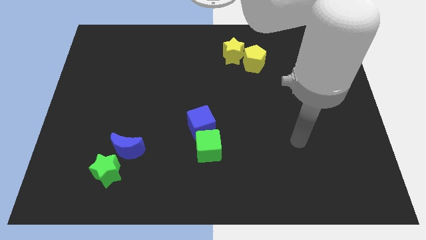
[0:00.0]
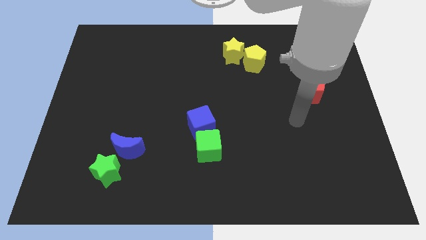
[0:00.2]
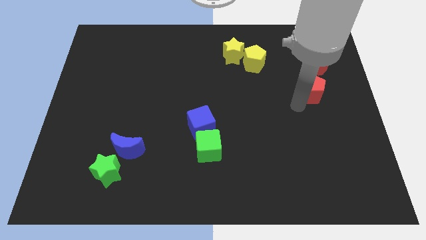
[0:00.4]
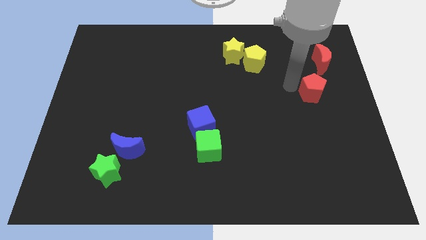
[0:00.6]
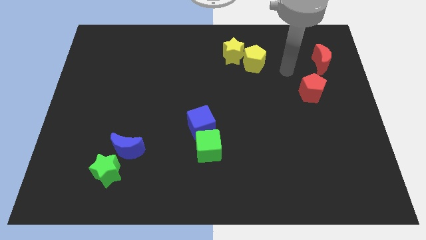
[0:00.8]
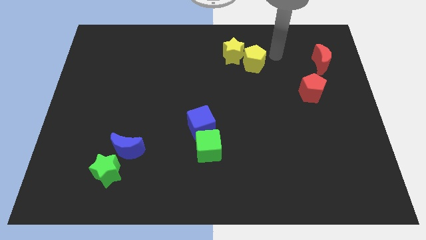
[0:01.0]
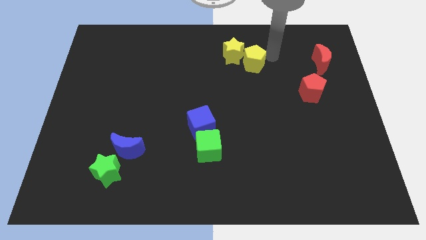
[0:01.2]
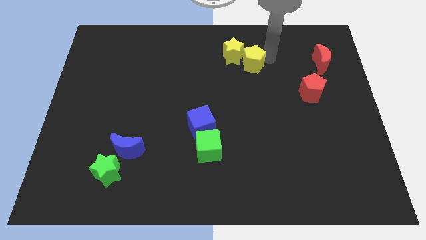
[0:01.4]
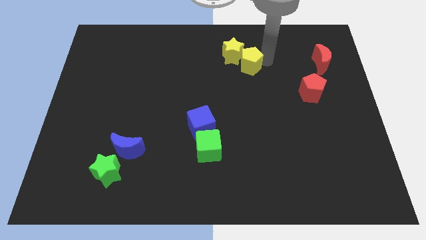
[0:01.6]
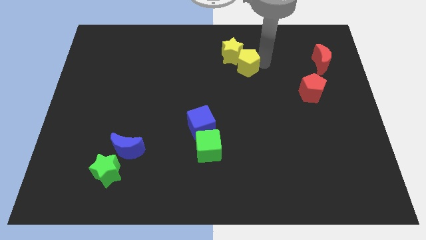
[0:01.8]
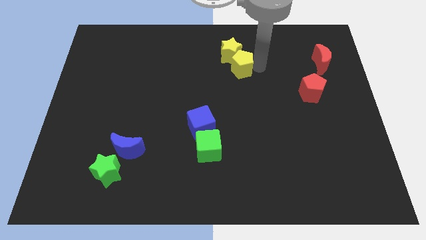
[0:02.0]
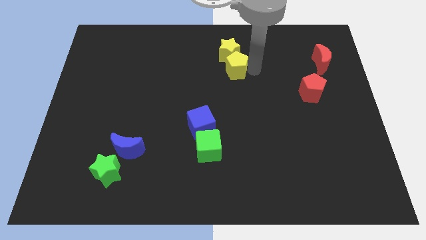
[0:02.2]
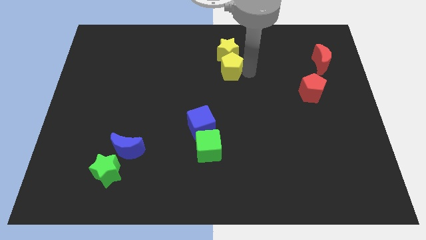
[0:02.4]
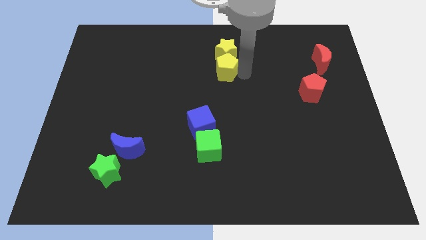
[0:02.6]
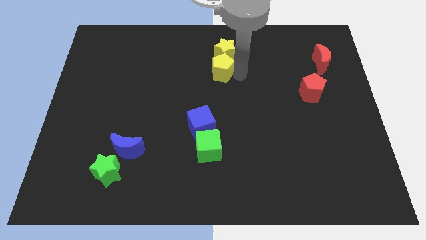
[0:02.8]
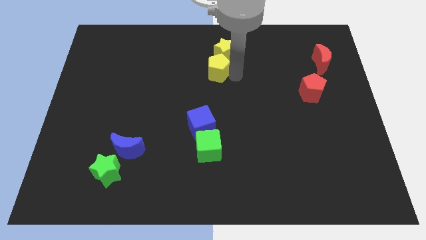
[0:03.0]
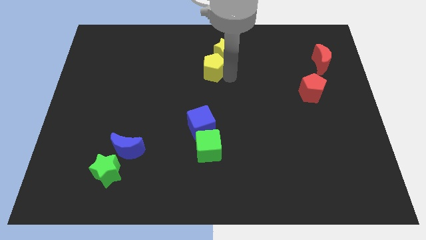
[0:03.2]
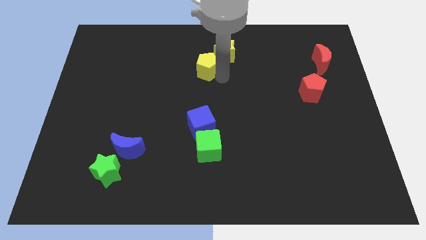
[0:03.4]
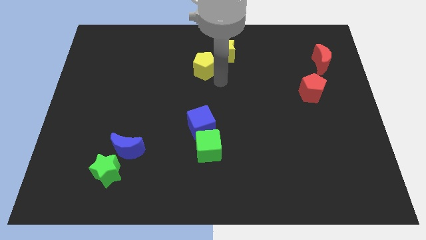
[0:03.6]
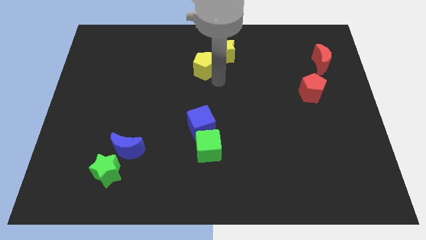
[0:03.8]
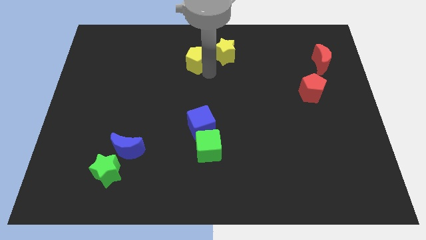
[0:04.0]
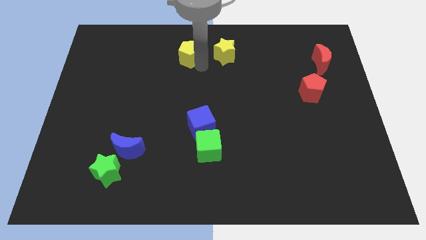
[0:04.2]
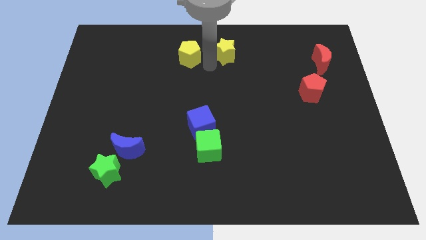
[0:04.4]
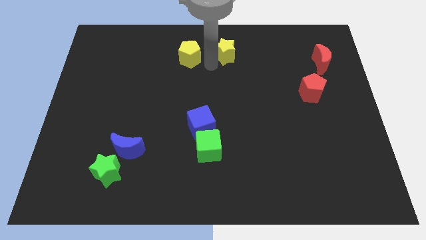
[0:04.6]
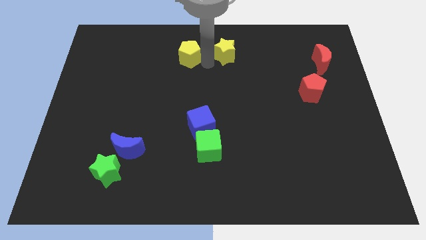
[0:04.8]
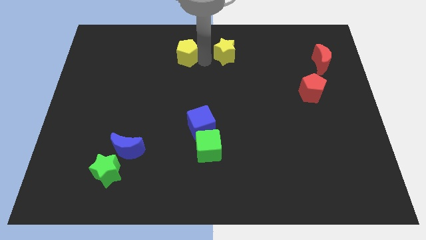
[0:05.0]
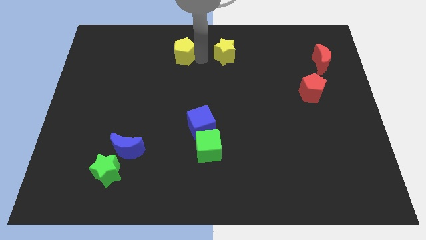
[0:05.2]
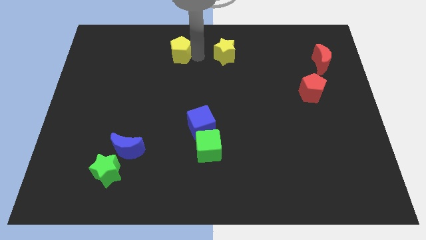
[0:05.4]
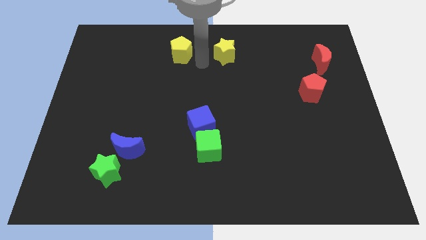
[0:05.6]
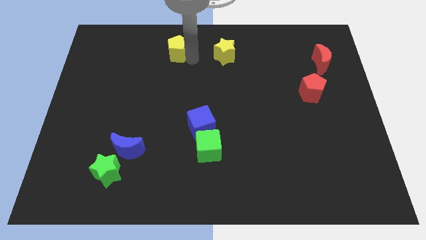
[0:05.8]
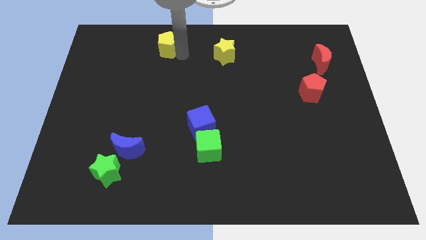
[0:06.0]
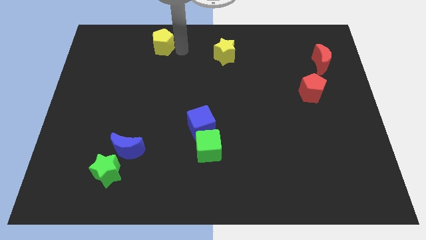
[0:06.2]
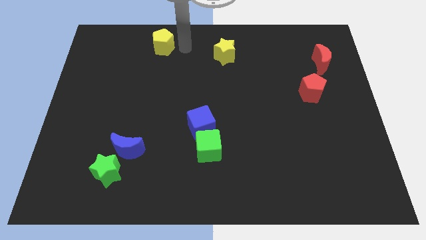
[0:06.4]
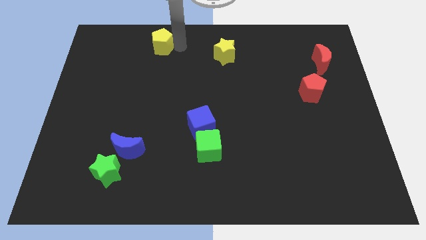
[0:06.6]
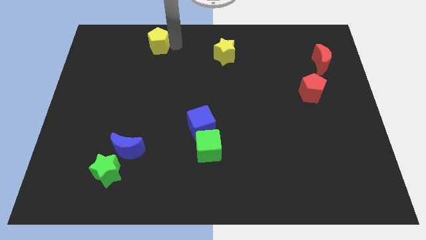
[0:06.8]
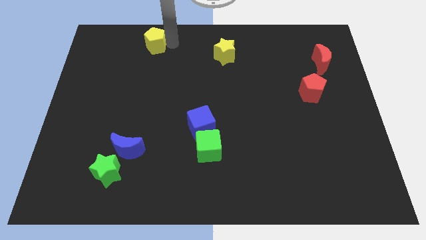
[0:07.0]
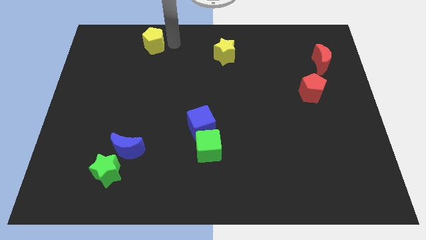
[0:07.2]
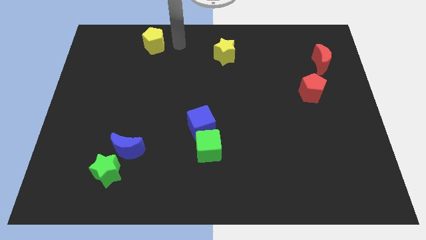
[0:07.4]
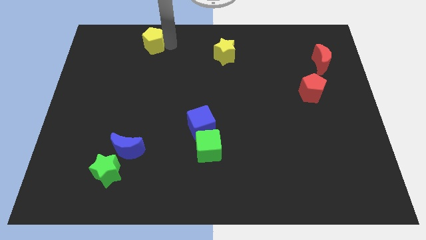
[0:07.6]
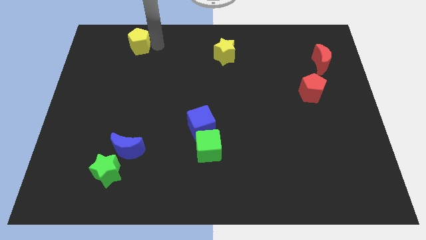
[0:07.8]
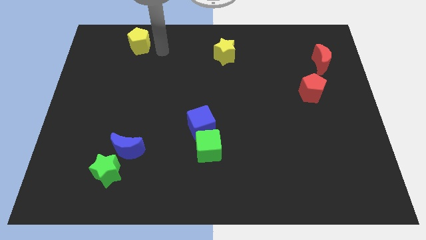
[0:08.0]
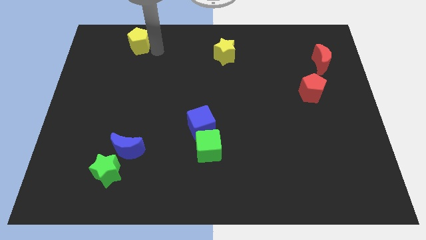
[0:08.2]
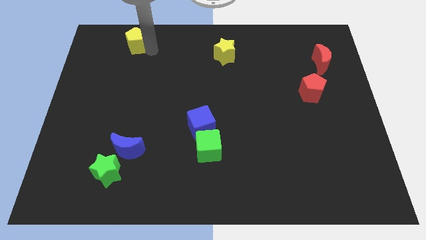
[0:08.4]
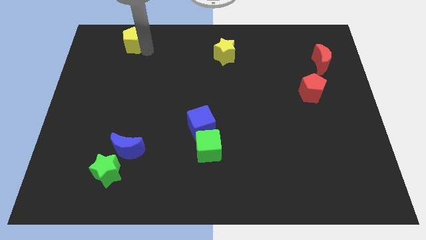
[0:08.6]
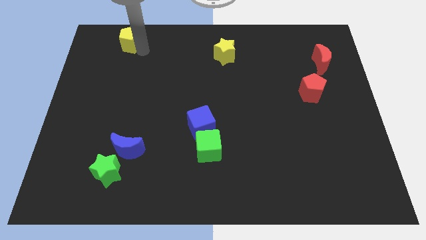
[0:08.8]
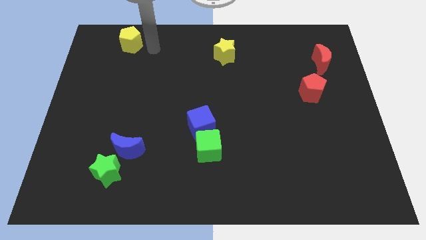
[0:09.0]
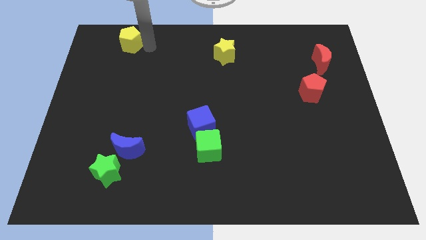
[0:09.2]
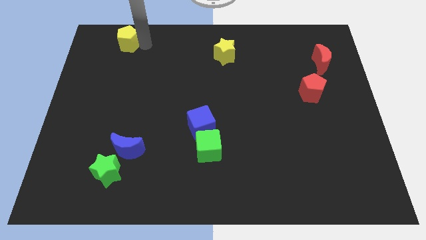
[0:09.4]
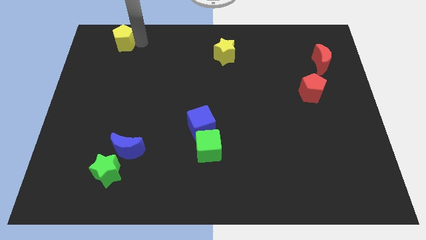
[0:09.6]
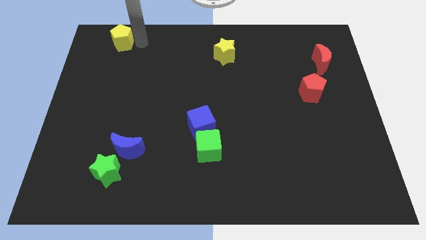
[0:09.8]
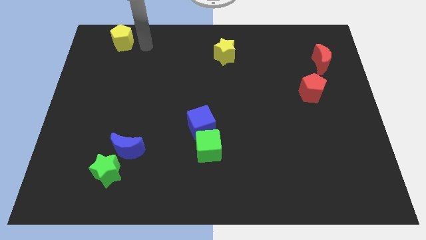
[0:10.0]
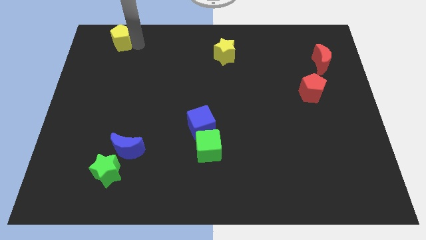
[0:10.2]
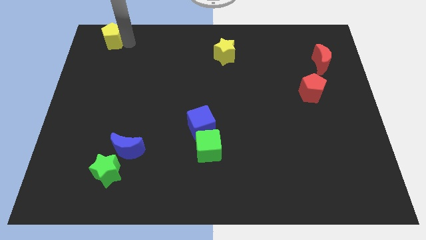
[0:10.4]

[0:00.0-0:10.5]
put the yellow pentagon to the upper left corner

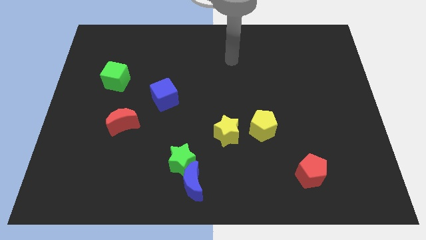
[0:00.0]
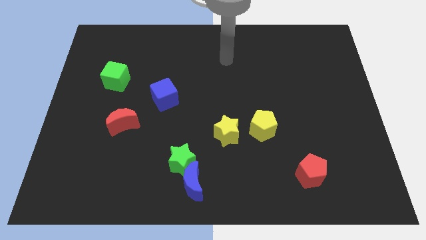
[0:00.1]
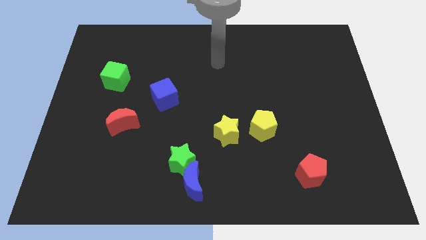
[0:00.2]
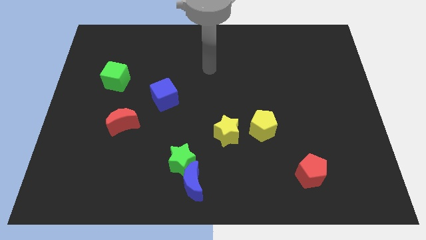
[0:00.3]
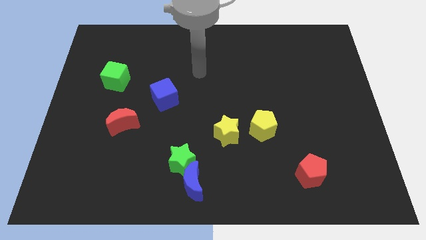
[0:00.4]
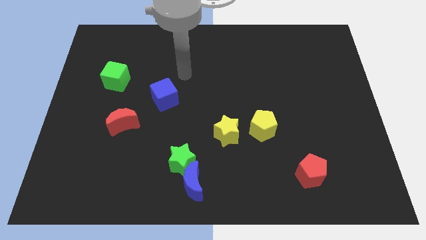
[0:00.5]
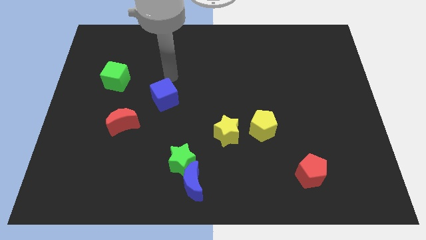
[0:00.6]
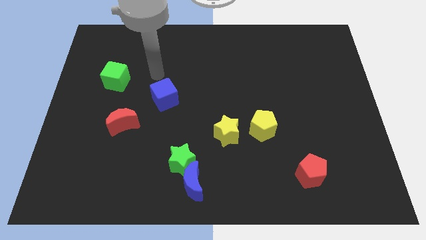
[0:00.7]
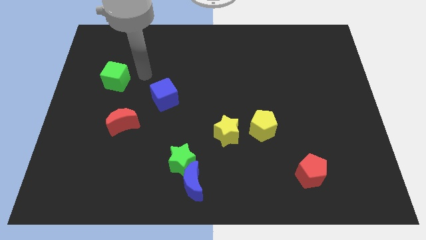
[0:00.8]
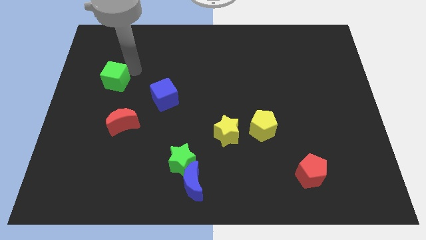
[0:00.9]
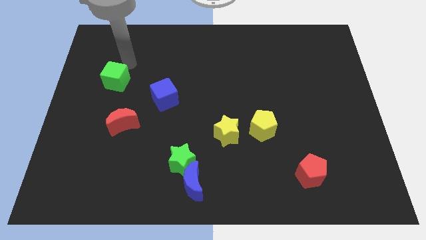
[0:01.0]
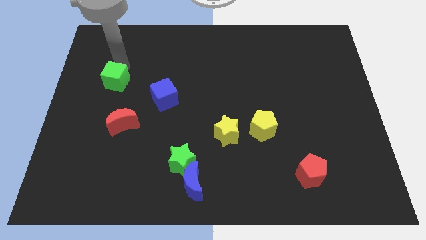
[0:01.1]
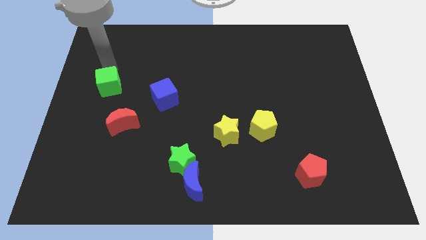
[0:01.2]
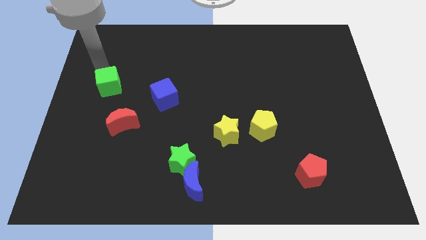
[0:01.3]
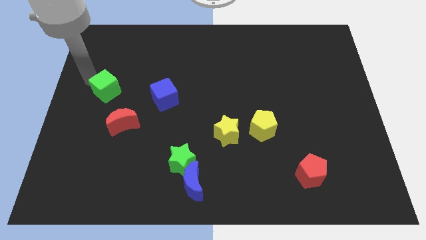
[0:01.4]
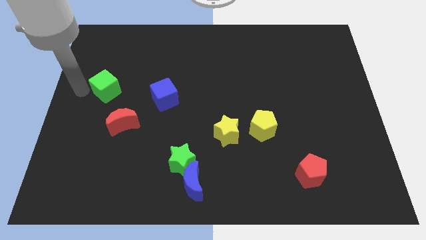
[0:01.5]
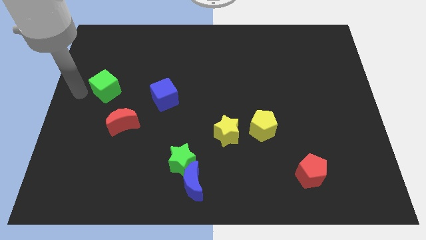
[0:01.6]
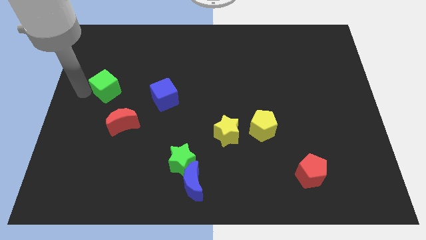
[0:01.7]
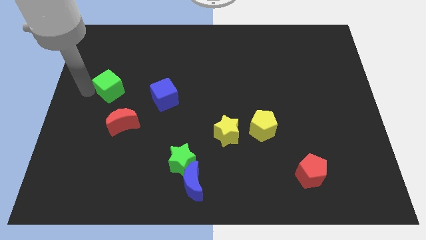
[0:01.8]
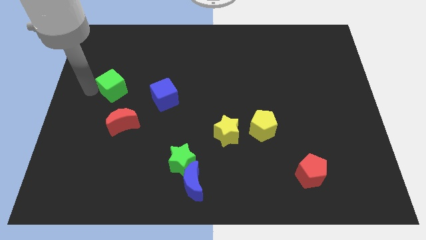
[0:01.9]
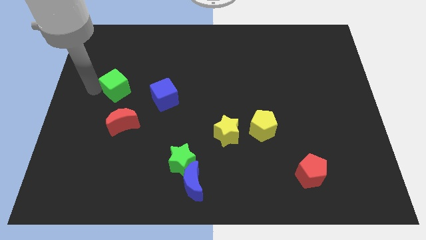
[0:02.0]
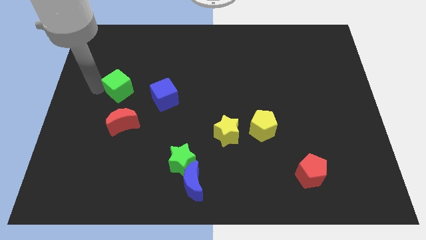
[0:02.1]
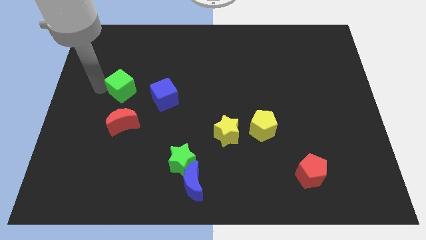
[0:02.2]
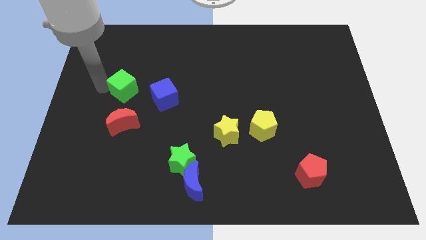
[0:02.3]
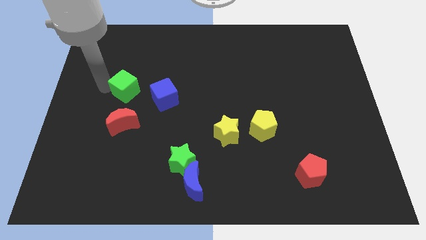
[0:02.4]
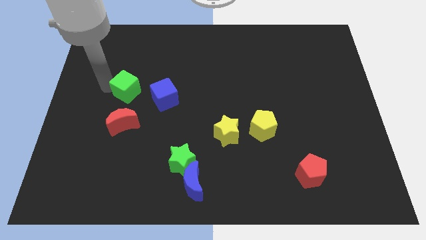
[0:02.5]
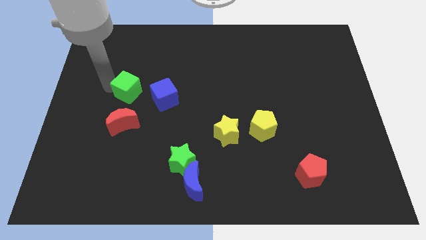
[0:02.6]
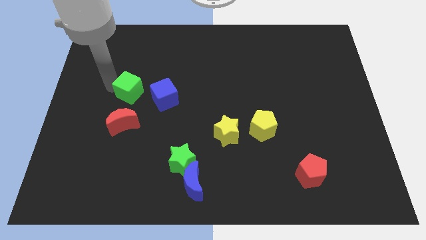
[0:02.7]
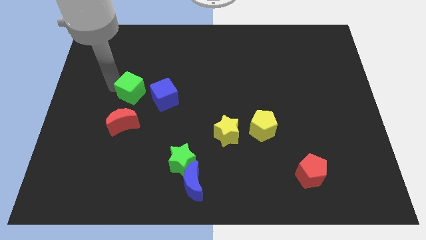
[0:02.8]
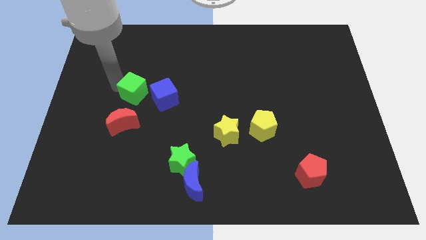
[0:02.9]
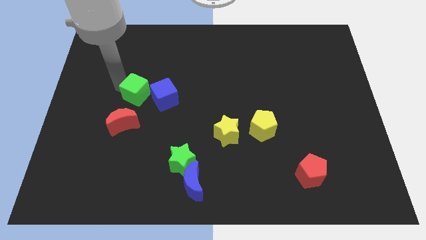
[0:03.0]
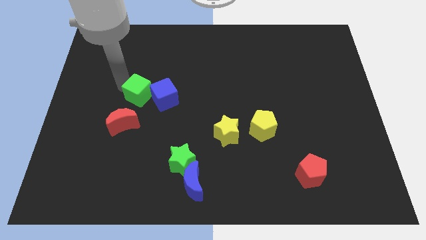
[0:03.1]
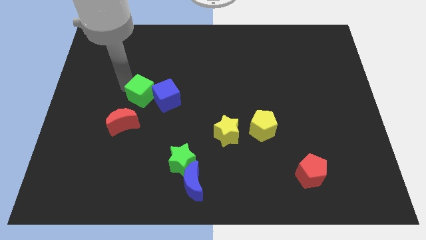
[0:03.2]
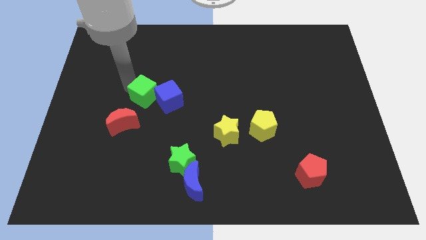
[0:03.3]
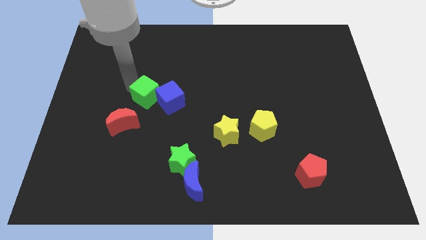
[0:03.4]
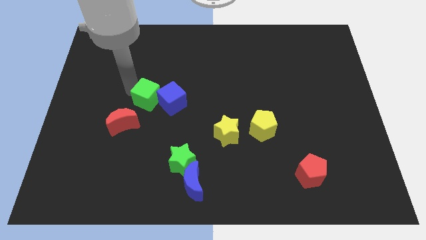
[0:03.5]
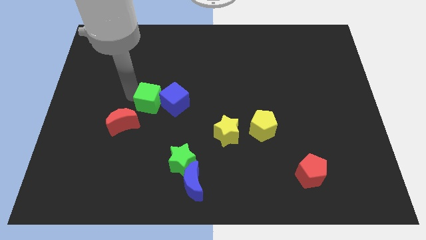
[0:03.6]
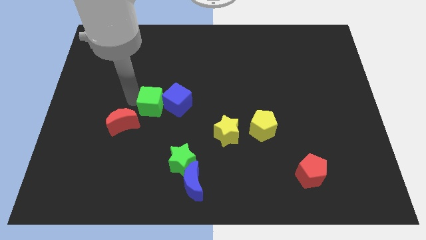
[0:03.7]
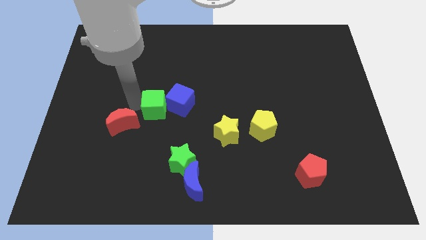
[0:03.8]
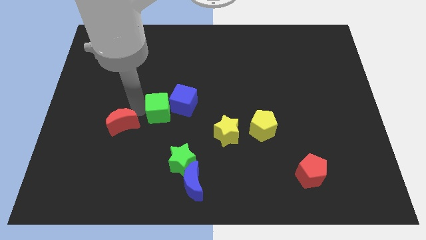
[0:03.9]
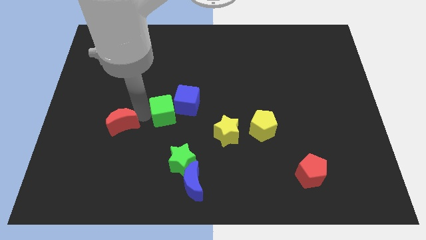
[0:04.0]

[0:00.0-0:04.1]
push the green cube to the middle of the board
